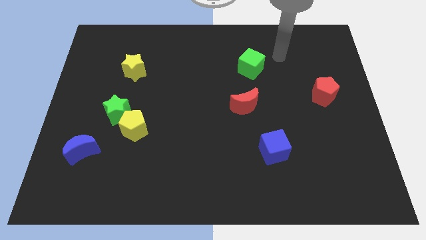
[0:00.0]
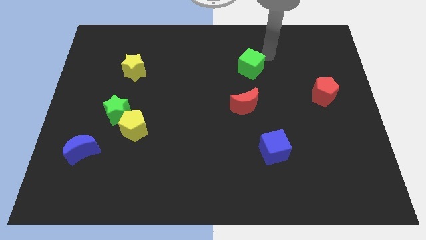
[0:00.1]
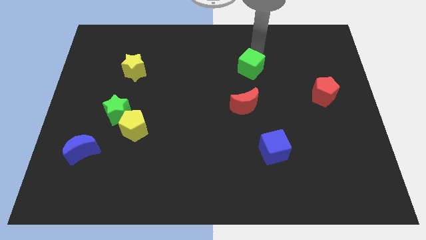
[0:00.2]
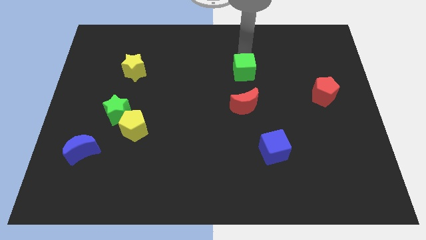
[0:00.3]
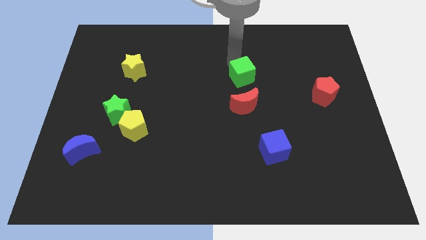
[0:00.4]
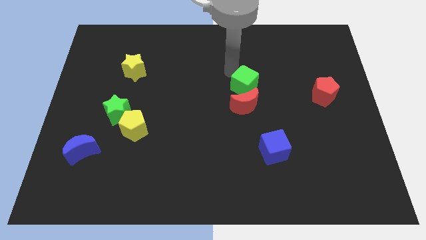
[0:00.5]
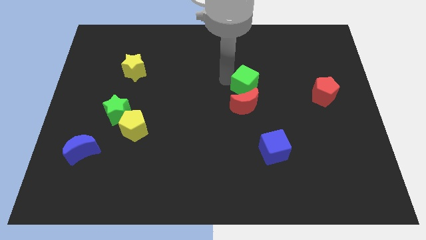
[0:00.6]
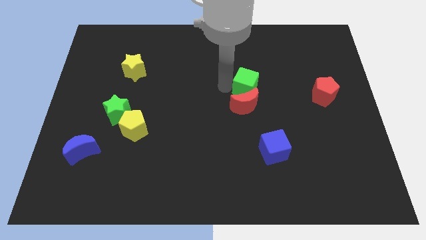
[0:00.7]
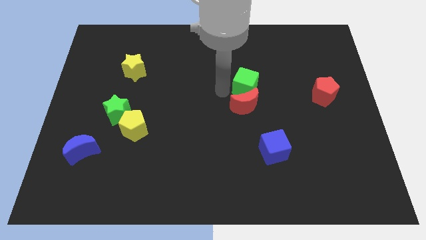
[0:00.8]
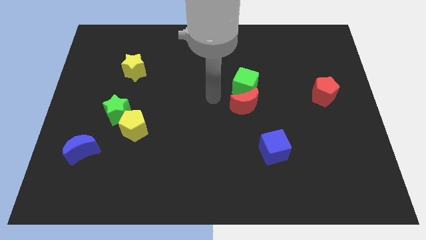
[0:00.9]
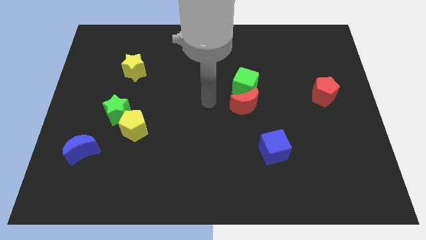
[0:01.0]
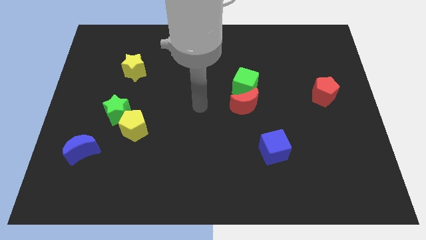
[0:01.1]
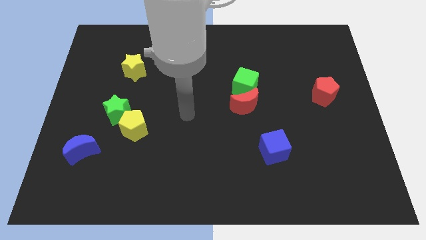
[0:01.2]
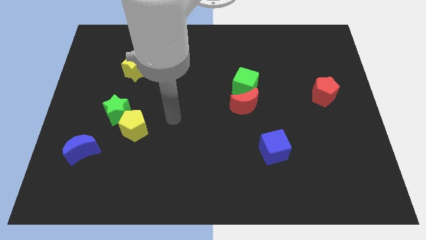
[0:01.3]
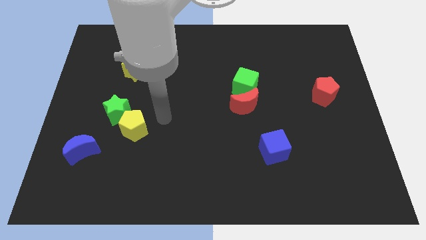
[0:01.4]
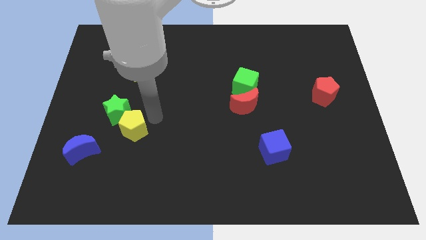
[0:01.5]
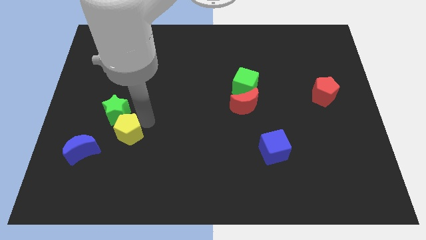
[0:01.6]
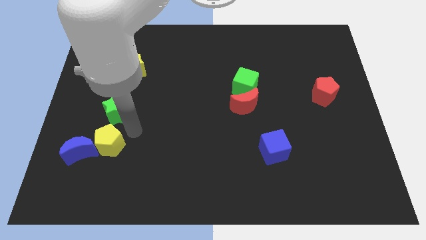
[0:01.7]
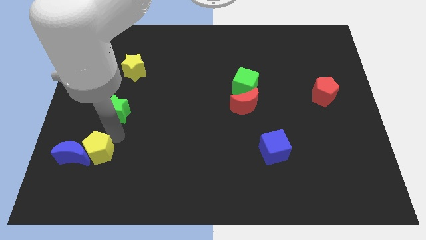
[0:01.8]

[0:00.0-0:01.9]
separate the green star from the yellow pentagon

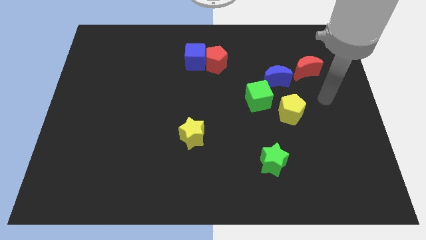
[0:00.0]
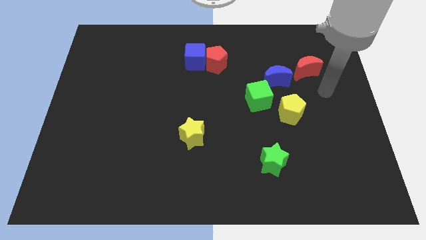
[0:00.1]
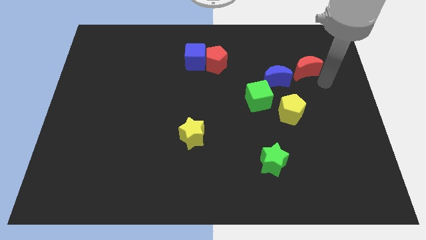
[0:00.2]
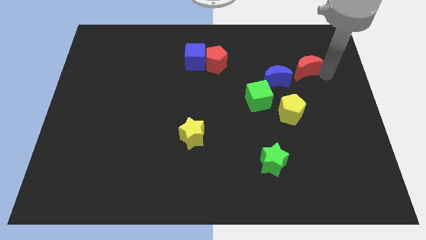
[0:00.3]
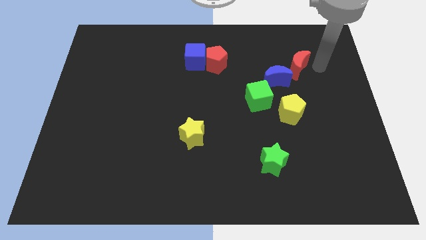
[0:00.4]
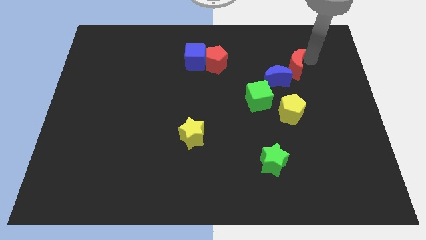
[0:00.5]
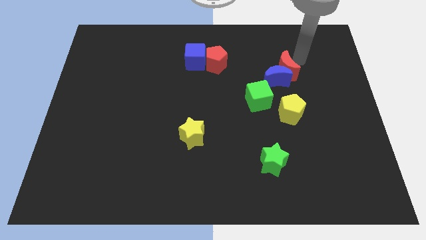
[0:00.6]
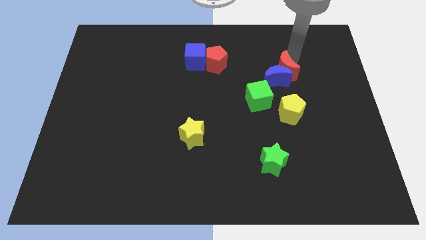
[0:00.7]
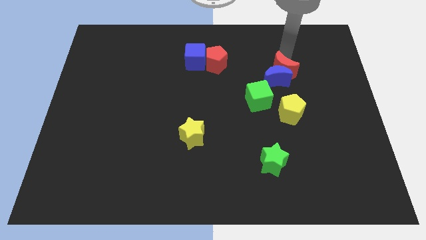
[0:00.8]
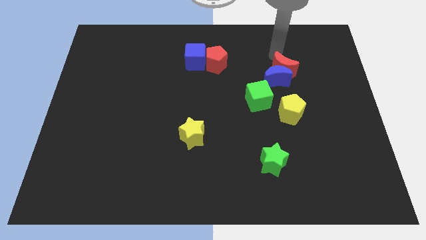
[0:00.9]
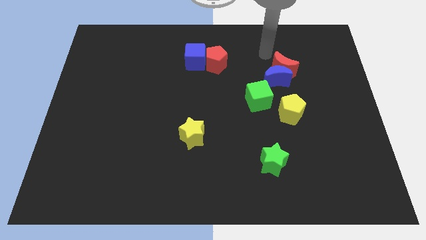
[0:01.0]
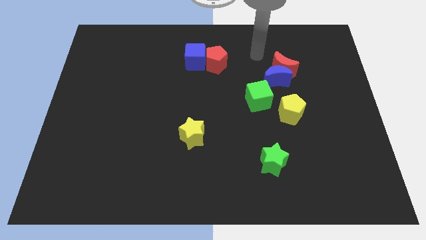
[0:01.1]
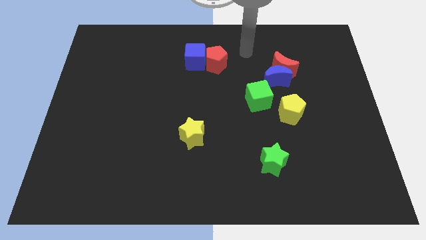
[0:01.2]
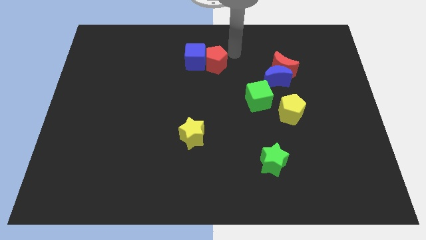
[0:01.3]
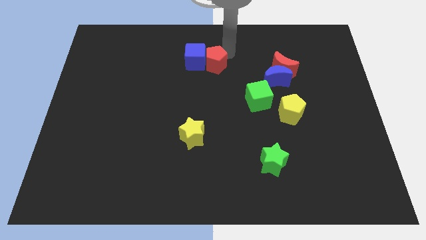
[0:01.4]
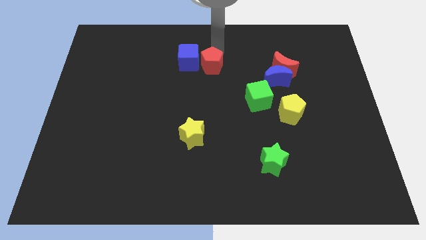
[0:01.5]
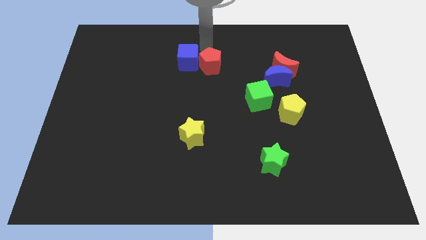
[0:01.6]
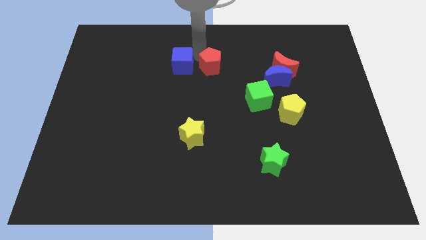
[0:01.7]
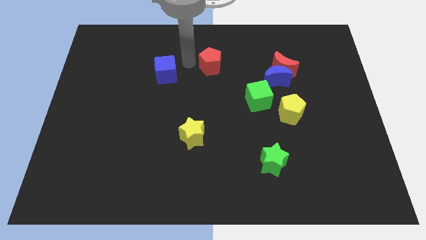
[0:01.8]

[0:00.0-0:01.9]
pull the red pentagon apart from the blue cube

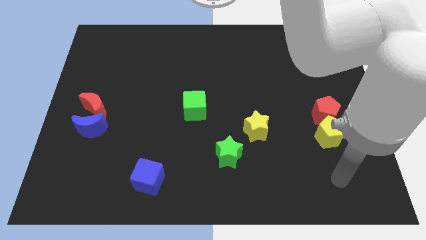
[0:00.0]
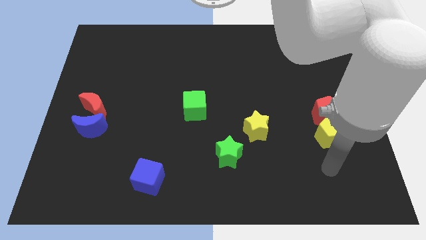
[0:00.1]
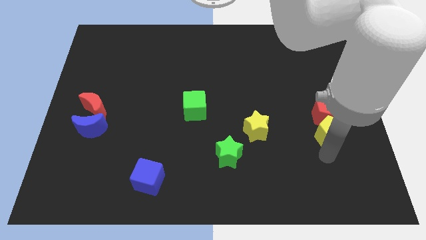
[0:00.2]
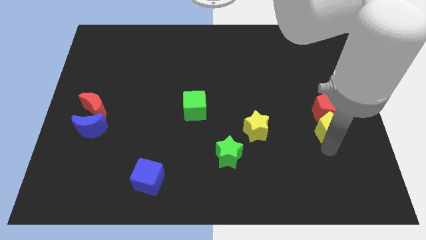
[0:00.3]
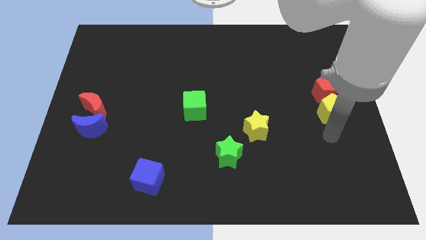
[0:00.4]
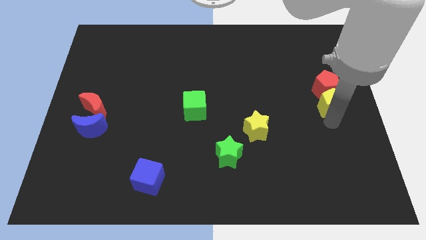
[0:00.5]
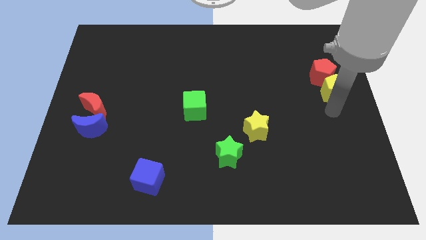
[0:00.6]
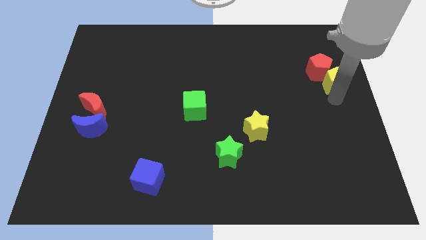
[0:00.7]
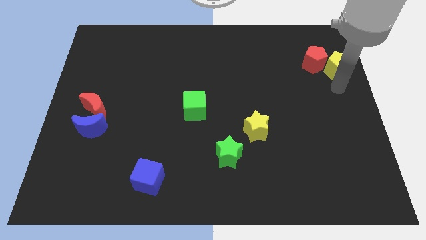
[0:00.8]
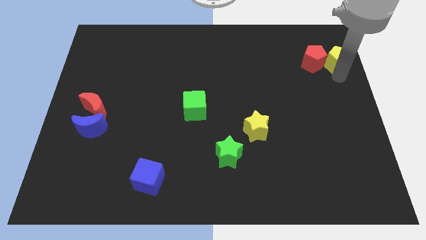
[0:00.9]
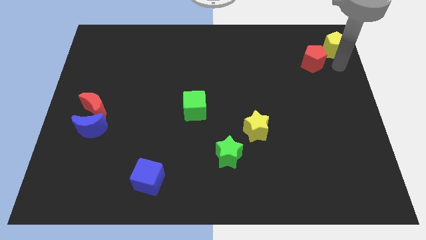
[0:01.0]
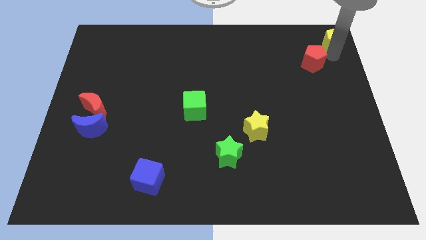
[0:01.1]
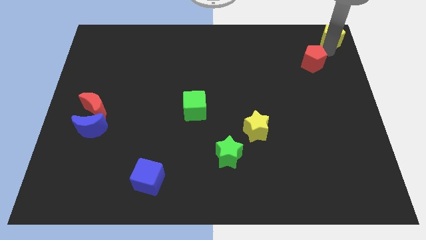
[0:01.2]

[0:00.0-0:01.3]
move the red pentagon away from the yellow pentagon

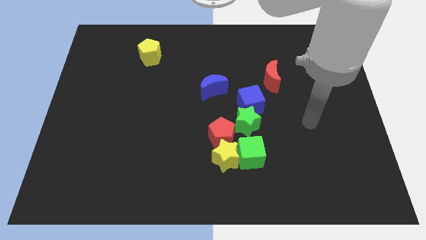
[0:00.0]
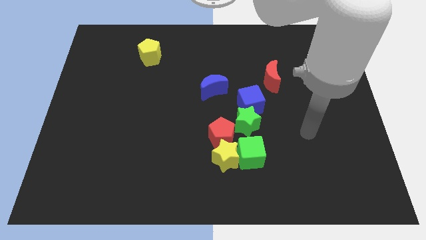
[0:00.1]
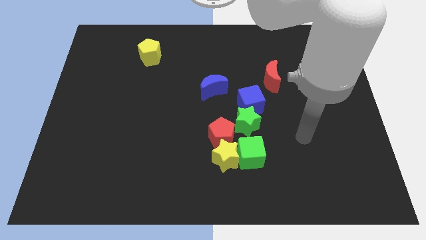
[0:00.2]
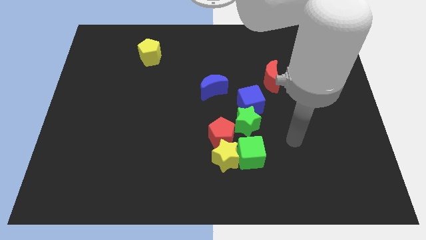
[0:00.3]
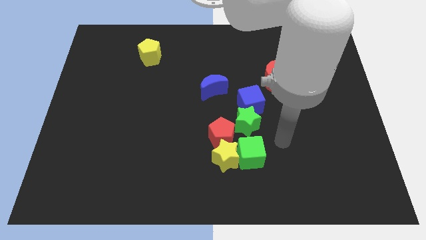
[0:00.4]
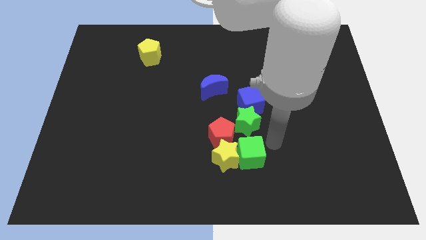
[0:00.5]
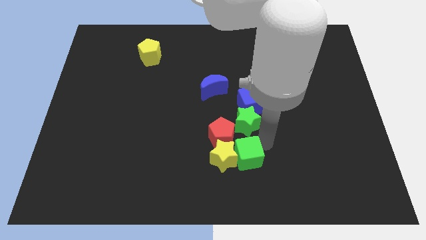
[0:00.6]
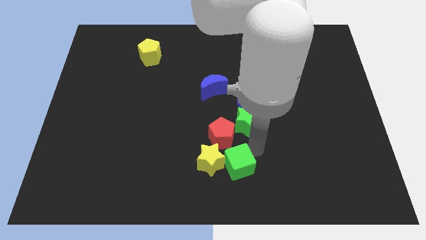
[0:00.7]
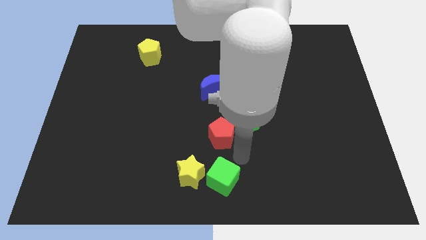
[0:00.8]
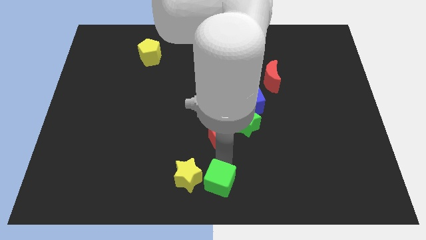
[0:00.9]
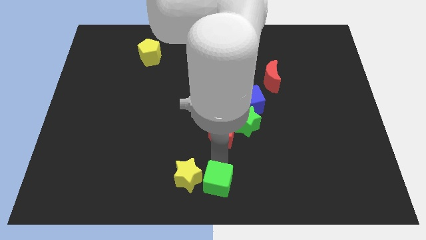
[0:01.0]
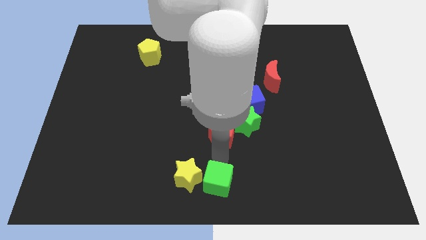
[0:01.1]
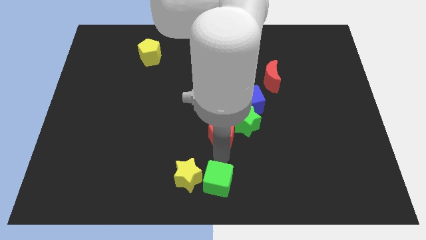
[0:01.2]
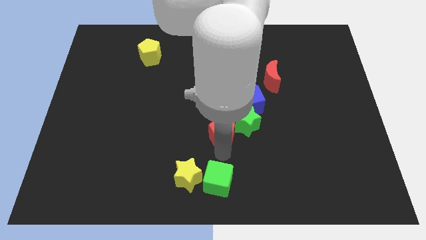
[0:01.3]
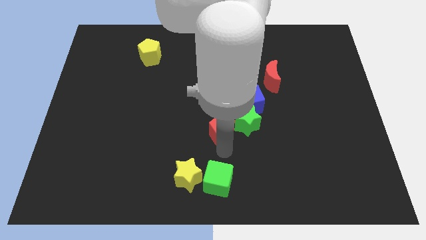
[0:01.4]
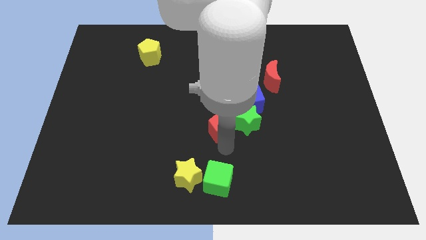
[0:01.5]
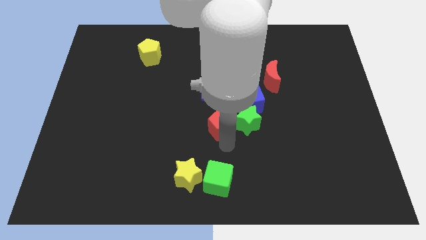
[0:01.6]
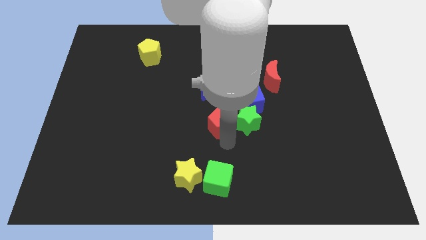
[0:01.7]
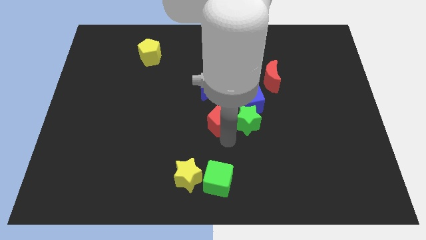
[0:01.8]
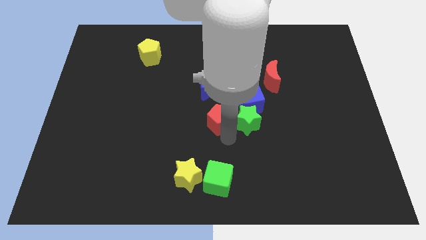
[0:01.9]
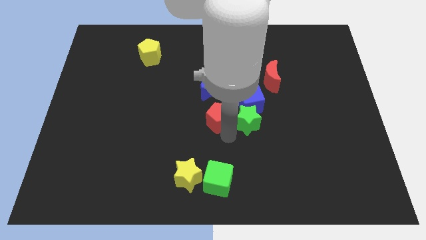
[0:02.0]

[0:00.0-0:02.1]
separate the red pentagon from the yellow star, green star, and green cube

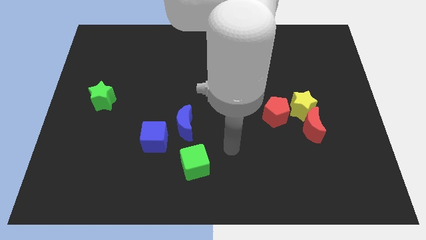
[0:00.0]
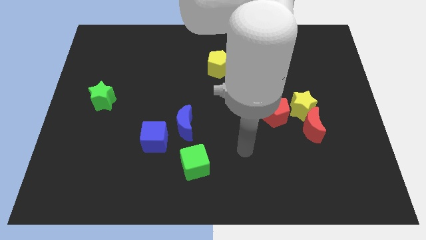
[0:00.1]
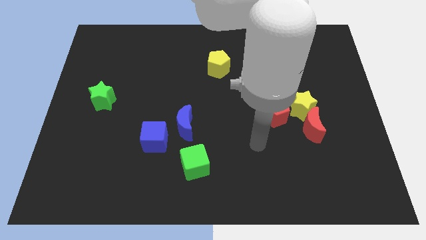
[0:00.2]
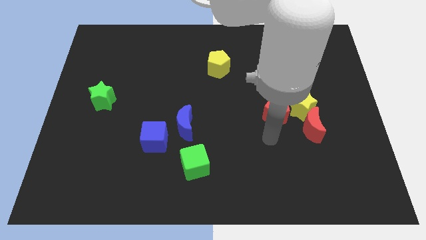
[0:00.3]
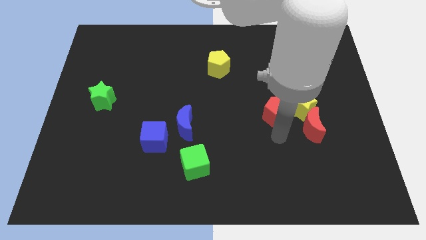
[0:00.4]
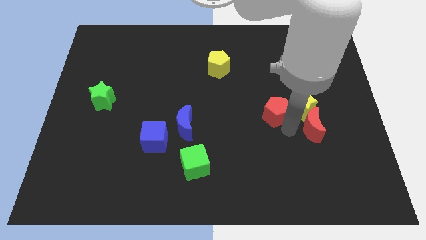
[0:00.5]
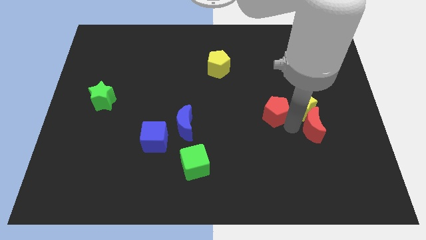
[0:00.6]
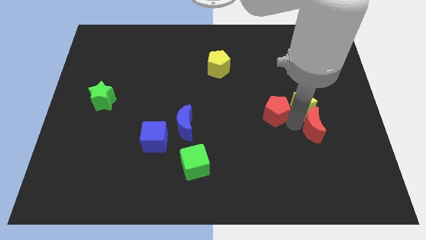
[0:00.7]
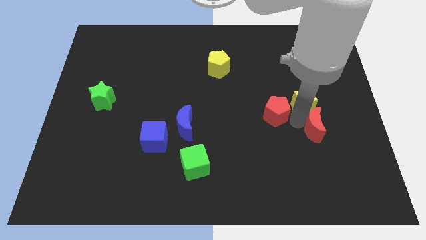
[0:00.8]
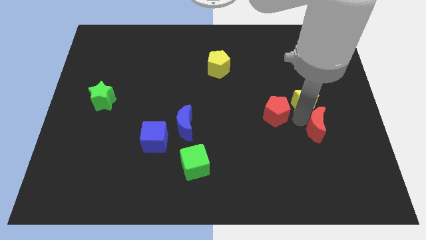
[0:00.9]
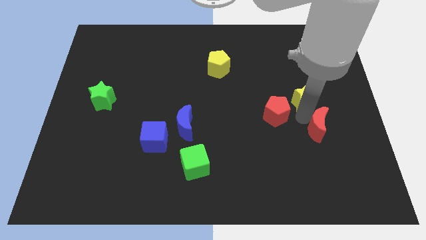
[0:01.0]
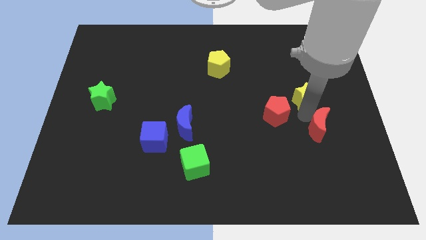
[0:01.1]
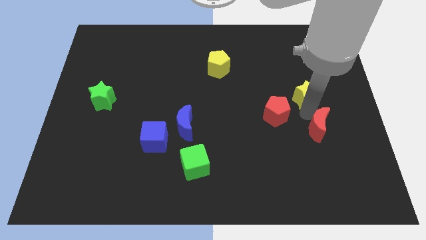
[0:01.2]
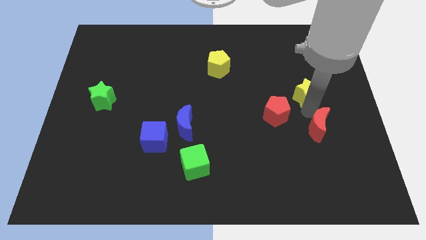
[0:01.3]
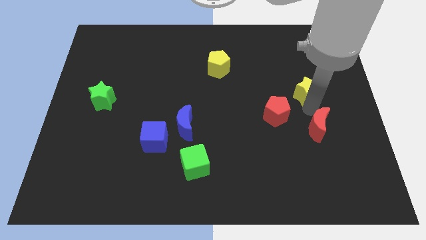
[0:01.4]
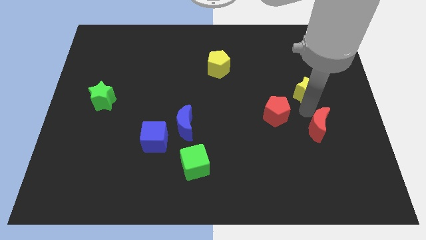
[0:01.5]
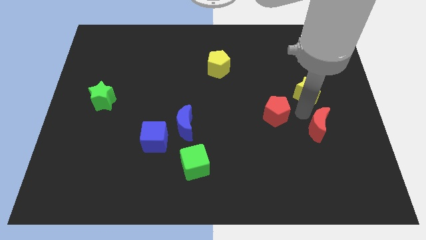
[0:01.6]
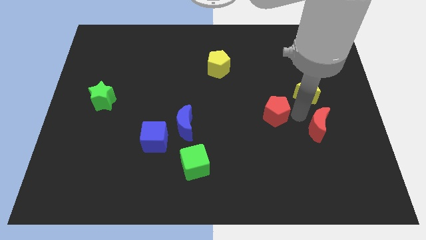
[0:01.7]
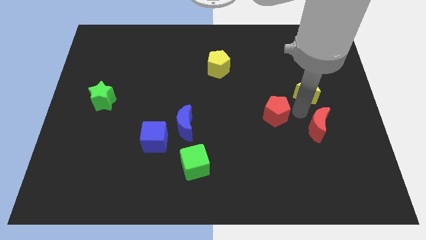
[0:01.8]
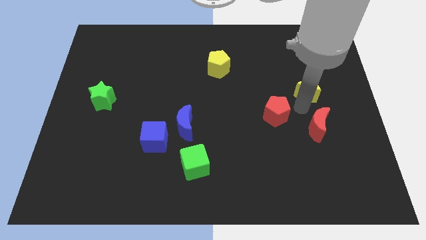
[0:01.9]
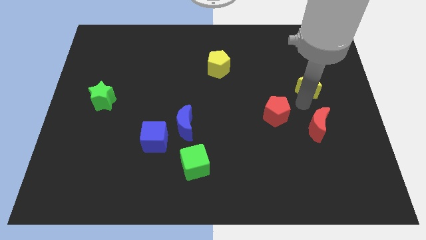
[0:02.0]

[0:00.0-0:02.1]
move the yellow star away from the red moon and red pentagon

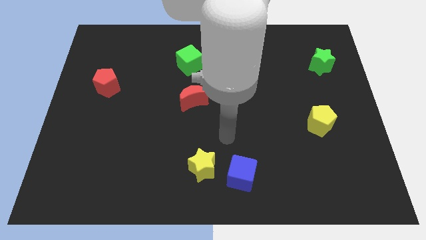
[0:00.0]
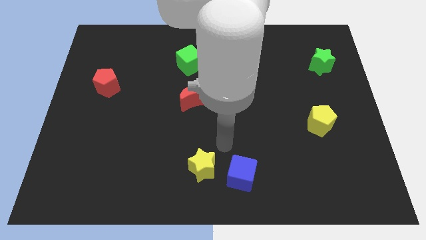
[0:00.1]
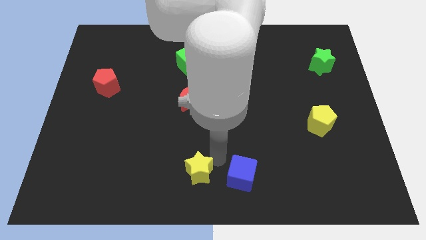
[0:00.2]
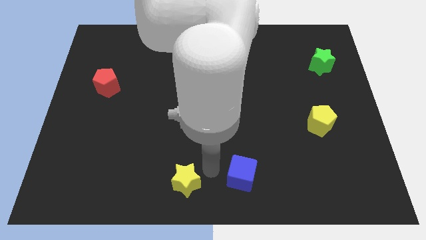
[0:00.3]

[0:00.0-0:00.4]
separate the blue cube from the yellow star
